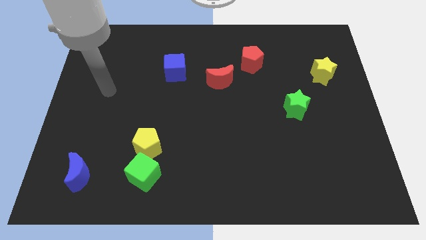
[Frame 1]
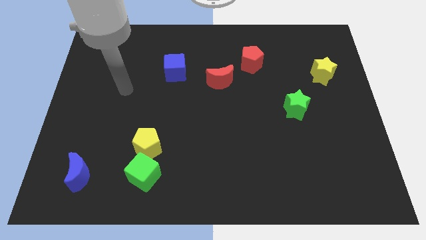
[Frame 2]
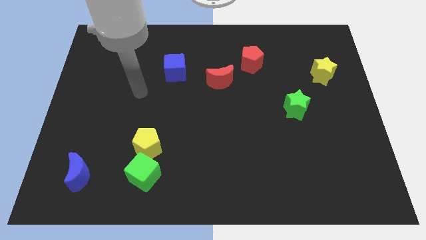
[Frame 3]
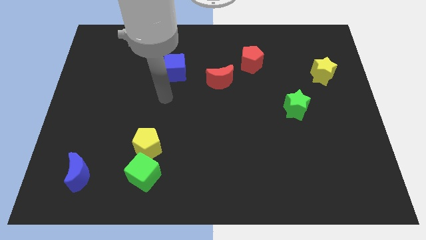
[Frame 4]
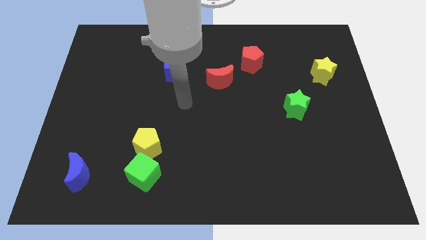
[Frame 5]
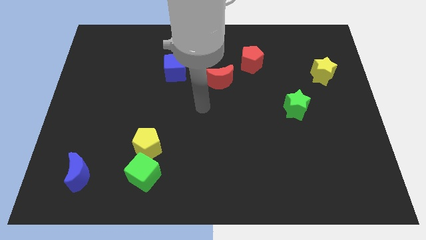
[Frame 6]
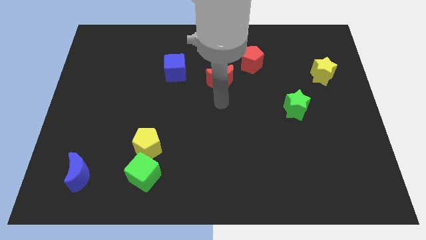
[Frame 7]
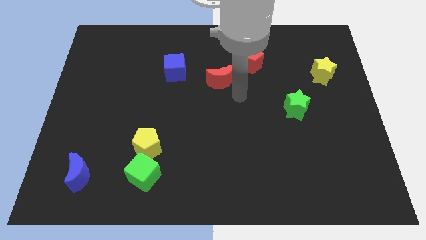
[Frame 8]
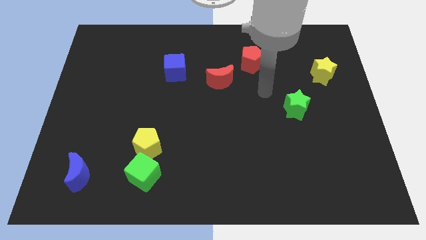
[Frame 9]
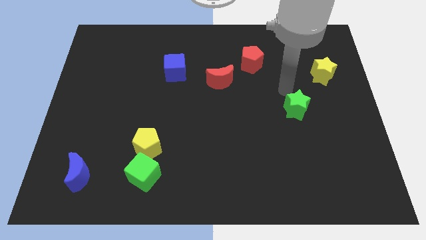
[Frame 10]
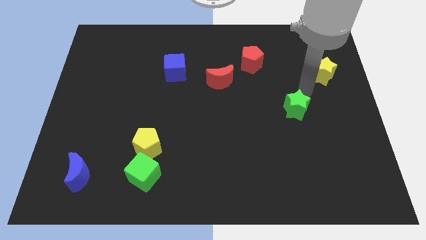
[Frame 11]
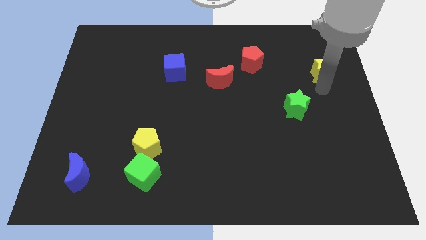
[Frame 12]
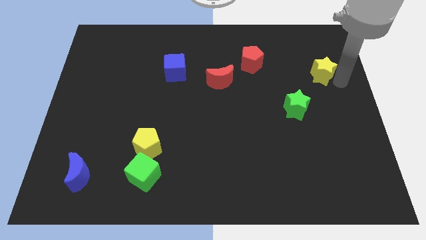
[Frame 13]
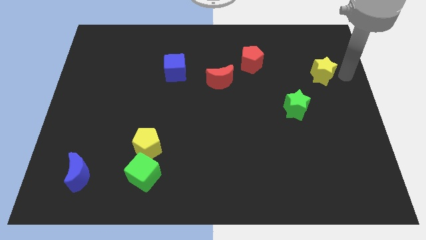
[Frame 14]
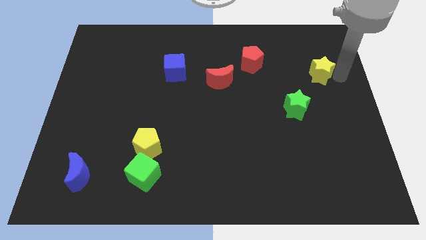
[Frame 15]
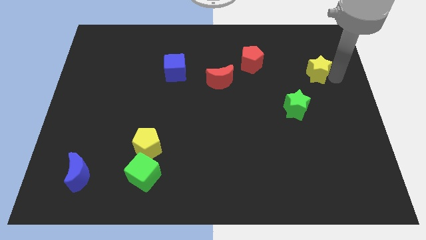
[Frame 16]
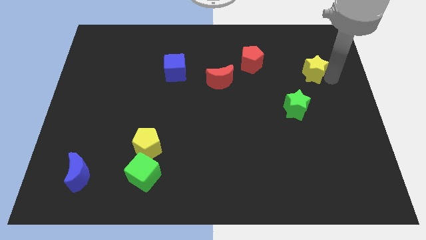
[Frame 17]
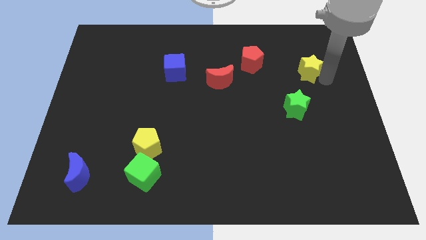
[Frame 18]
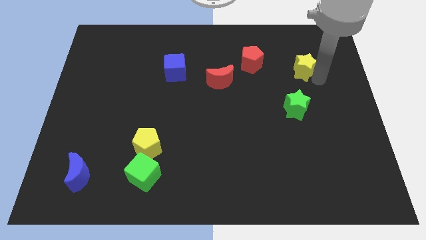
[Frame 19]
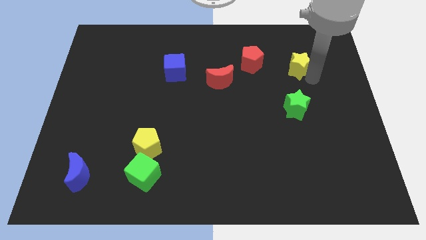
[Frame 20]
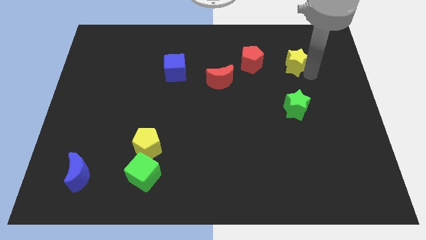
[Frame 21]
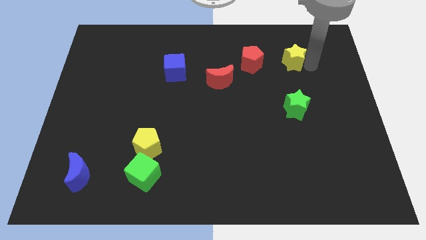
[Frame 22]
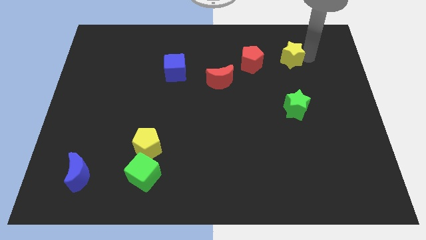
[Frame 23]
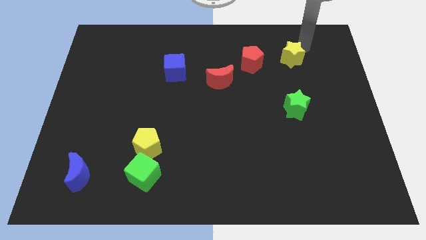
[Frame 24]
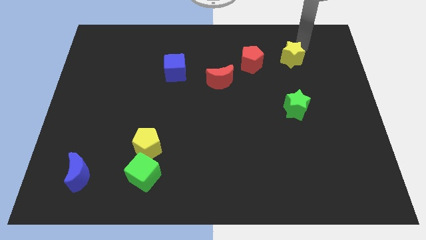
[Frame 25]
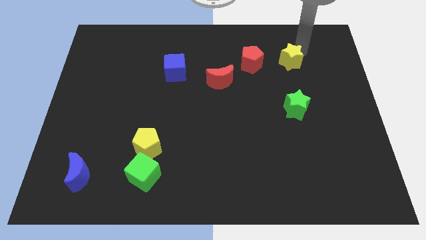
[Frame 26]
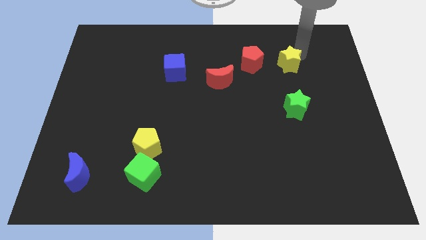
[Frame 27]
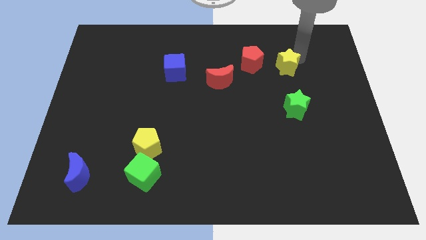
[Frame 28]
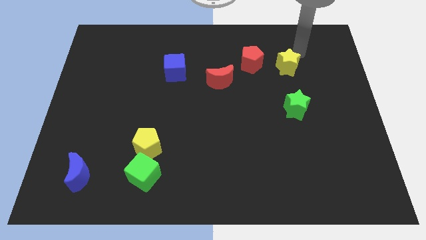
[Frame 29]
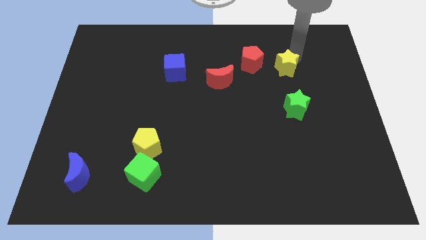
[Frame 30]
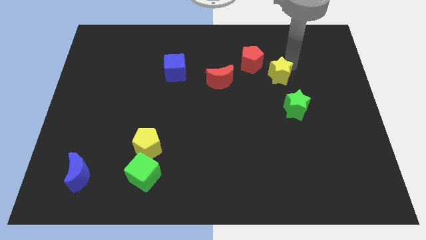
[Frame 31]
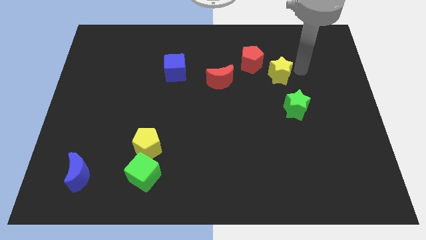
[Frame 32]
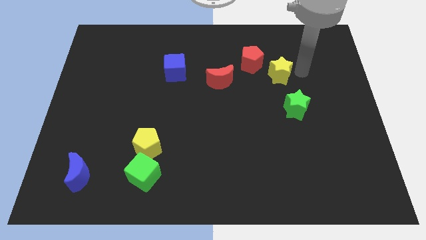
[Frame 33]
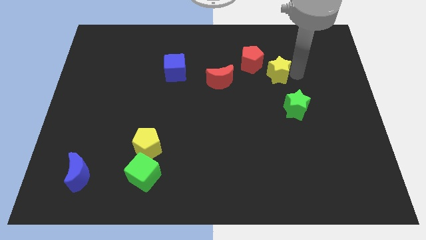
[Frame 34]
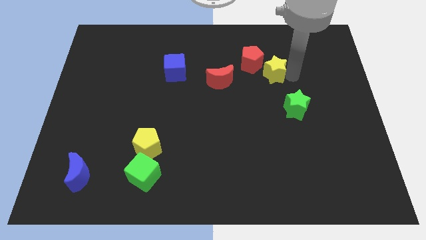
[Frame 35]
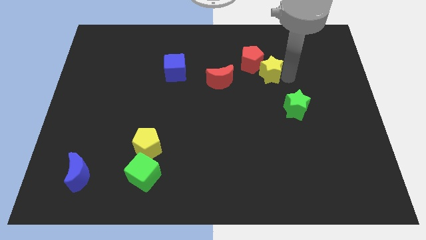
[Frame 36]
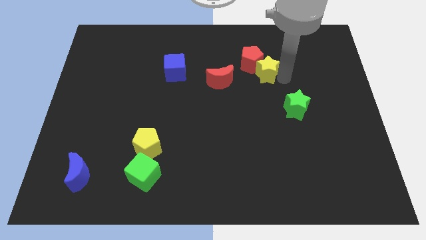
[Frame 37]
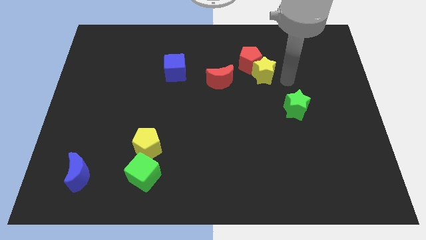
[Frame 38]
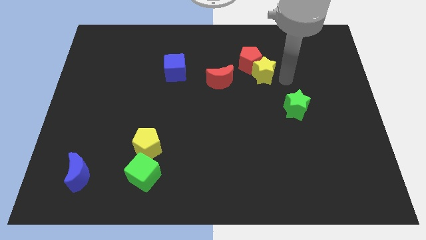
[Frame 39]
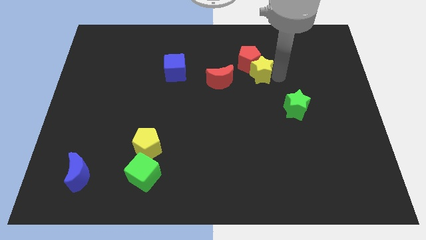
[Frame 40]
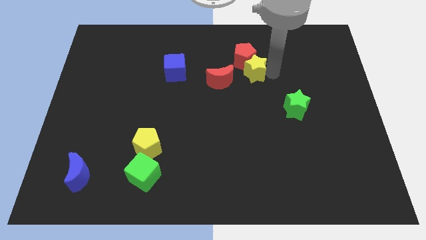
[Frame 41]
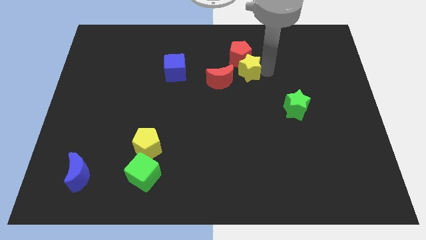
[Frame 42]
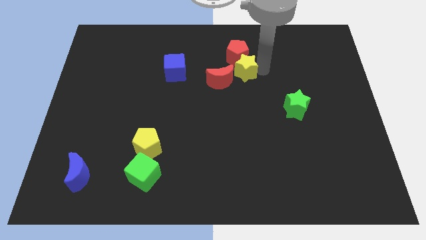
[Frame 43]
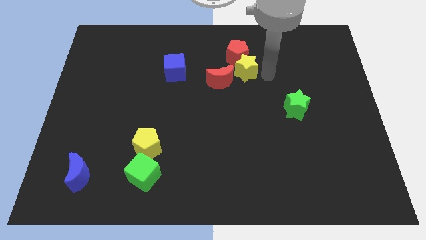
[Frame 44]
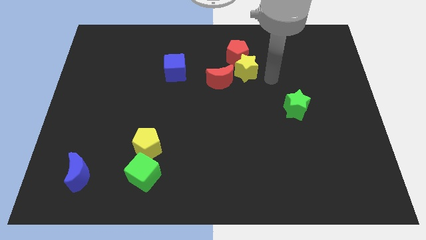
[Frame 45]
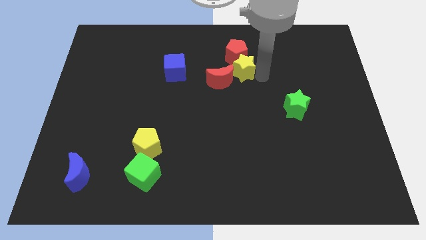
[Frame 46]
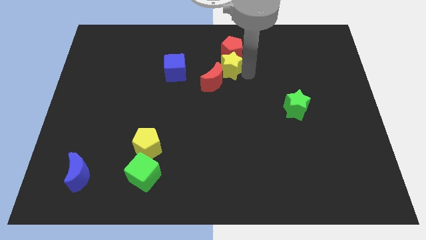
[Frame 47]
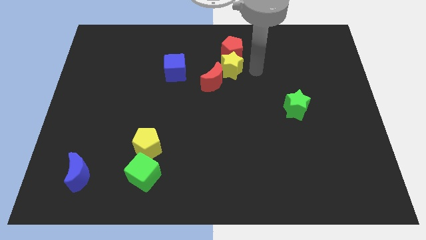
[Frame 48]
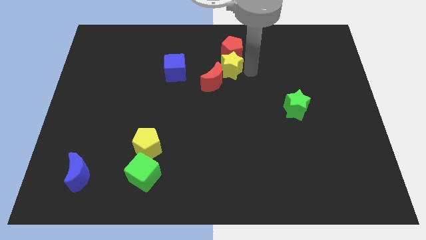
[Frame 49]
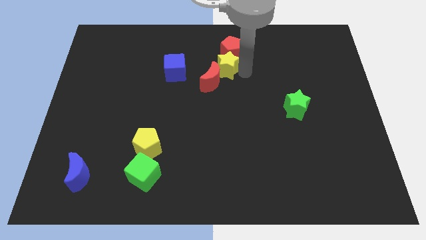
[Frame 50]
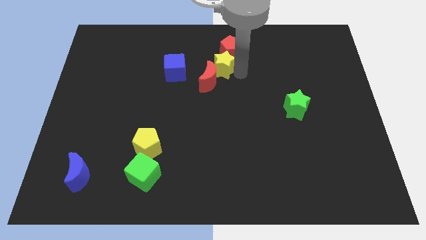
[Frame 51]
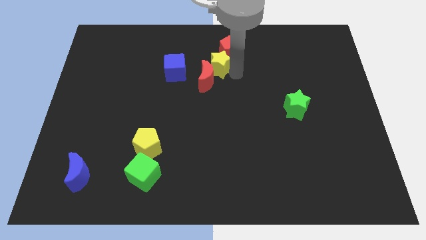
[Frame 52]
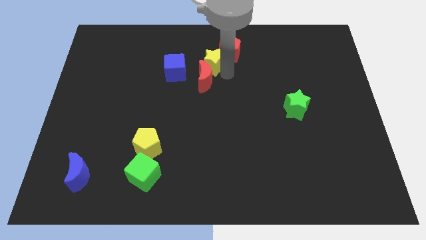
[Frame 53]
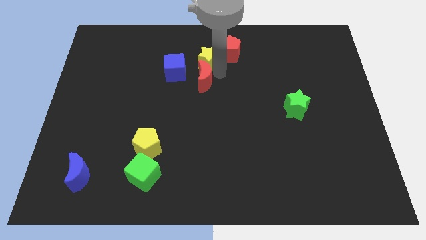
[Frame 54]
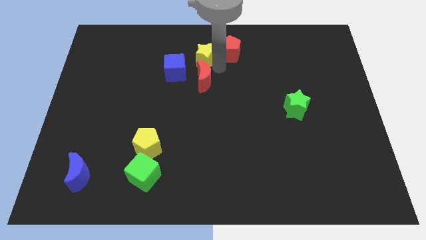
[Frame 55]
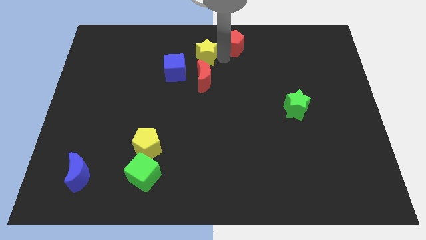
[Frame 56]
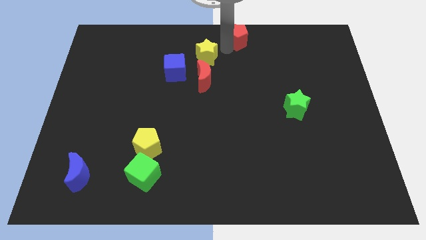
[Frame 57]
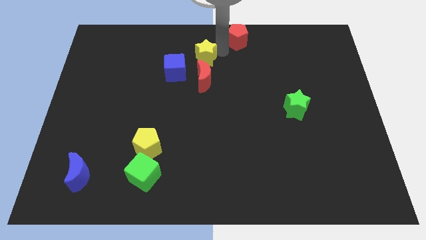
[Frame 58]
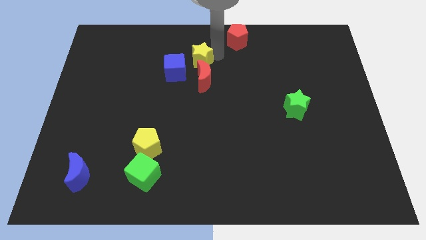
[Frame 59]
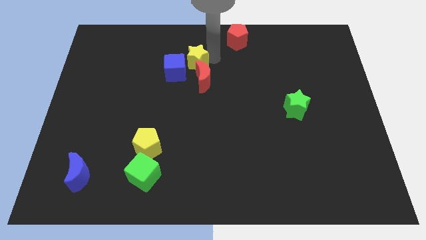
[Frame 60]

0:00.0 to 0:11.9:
move the yellow star next to the blue cube

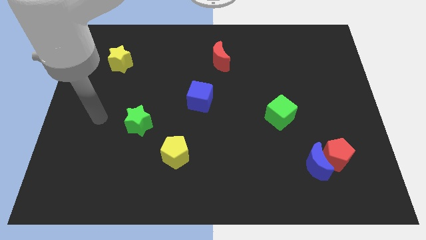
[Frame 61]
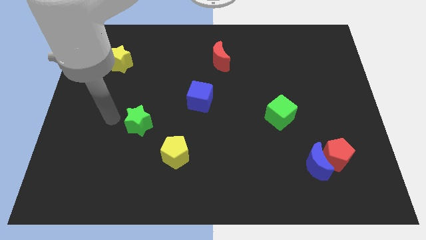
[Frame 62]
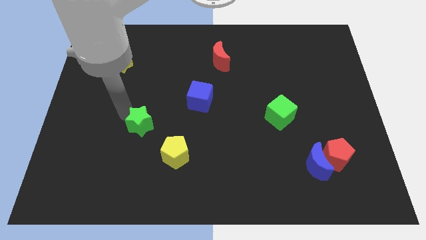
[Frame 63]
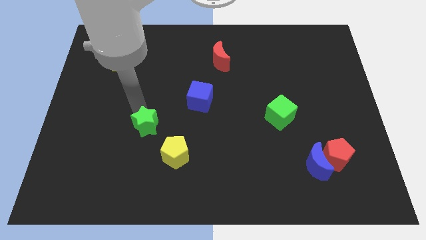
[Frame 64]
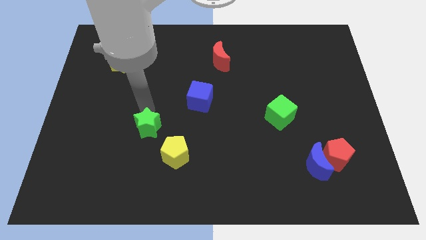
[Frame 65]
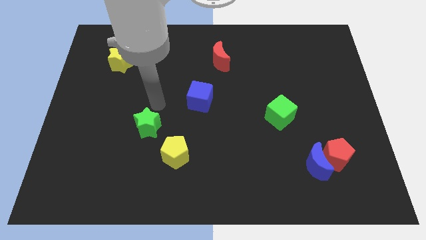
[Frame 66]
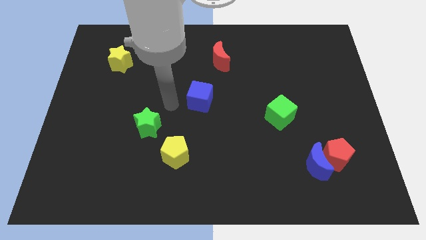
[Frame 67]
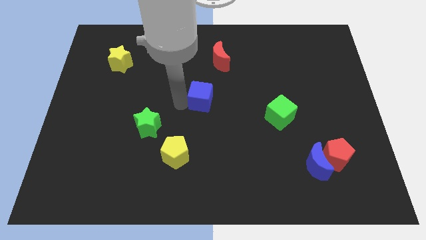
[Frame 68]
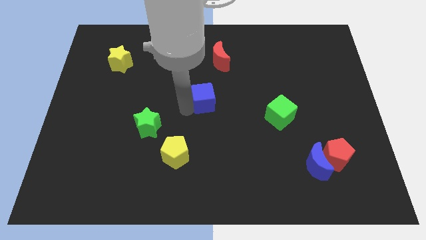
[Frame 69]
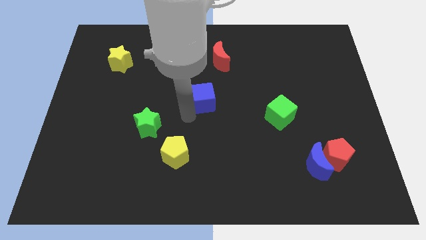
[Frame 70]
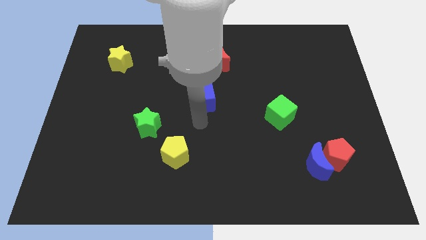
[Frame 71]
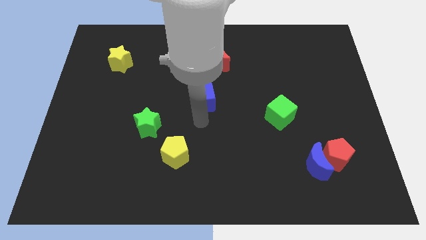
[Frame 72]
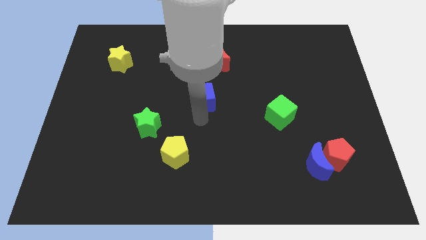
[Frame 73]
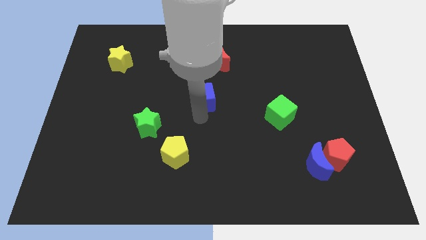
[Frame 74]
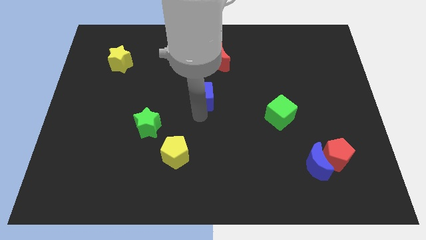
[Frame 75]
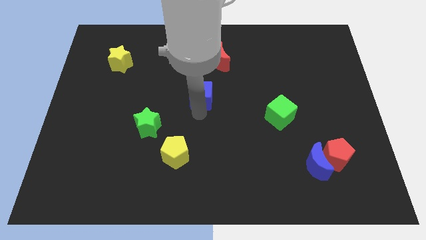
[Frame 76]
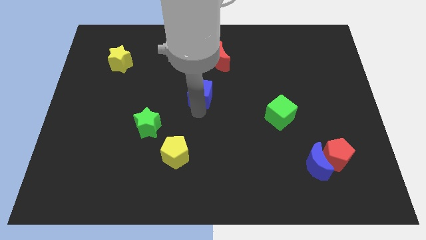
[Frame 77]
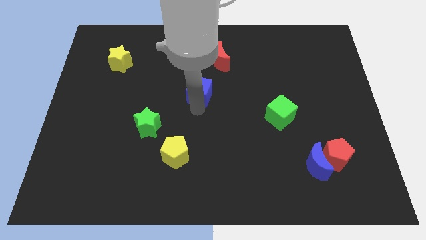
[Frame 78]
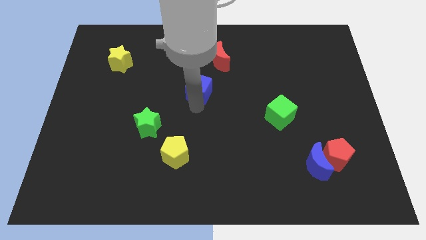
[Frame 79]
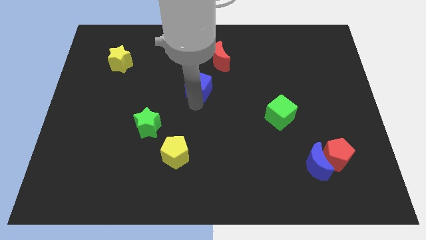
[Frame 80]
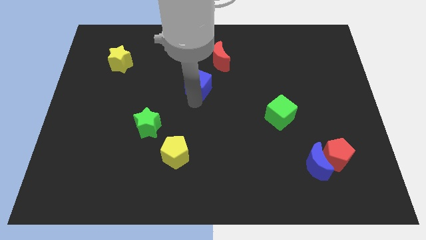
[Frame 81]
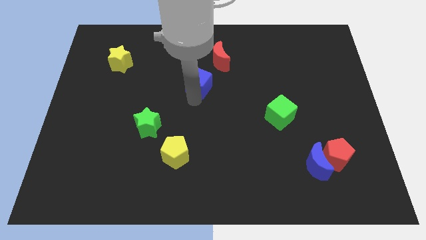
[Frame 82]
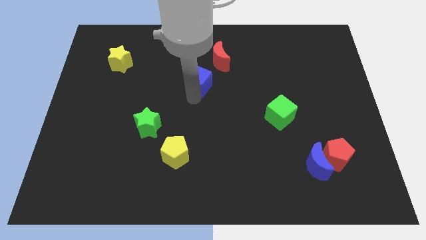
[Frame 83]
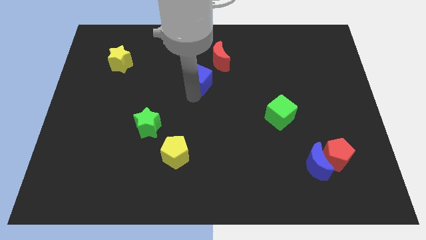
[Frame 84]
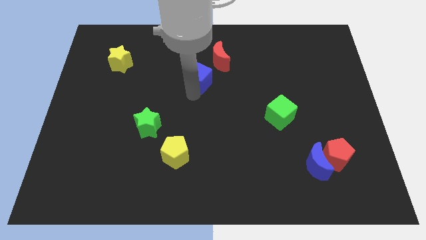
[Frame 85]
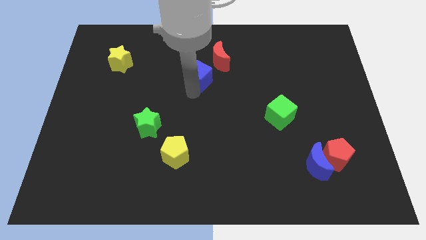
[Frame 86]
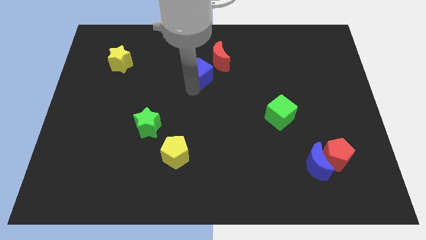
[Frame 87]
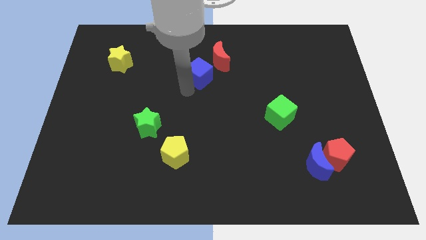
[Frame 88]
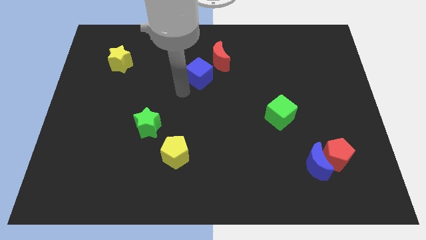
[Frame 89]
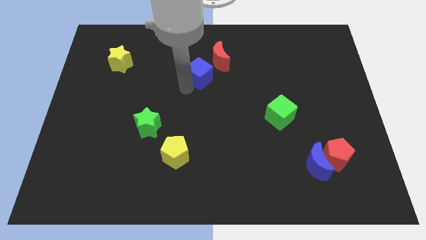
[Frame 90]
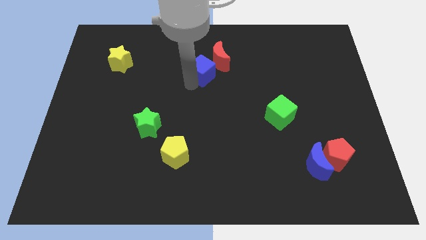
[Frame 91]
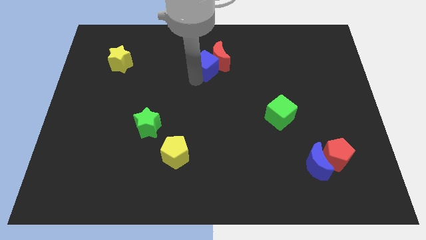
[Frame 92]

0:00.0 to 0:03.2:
move the blue cube towards the red moon
